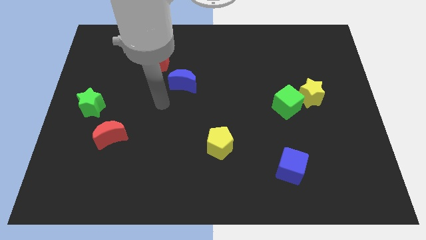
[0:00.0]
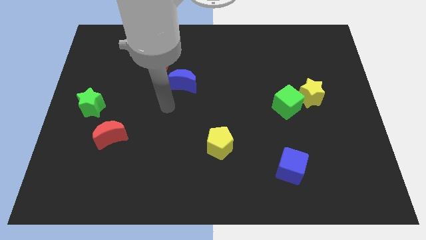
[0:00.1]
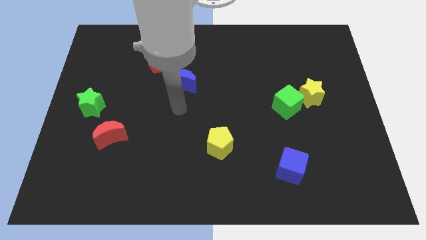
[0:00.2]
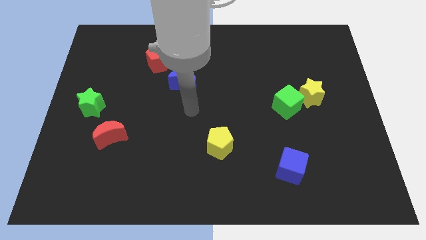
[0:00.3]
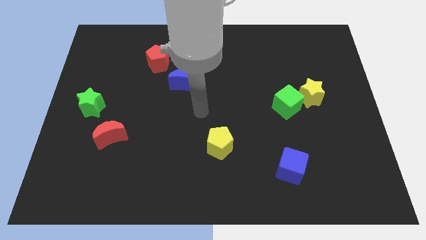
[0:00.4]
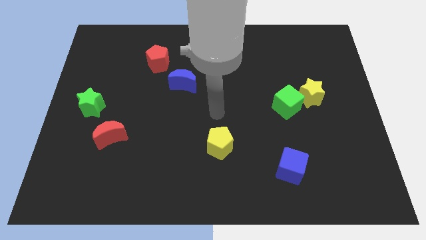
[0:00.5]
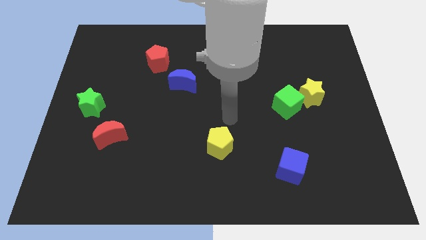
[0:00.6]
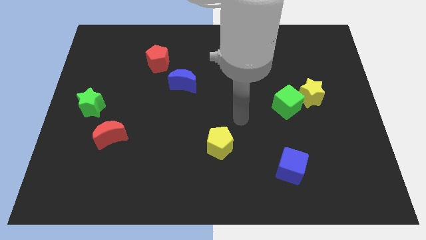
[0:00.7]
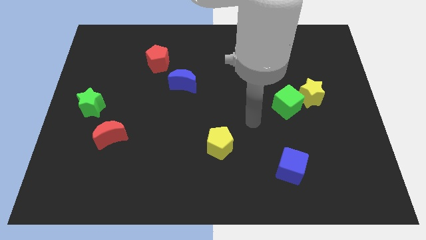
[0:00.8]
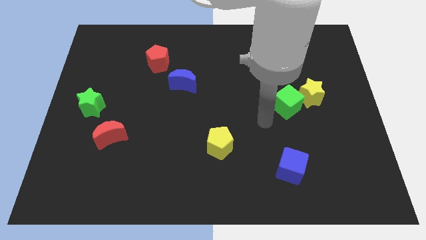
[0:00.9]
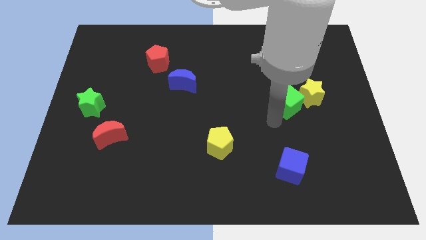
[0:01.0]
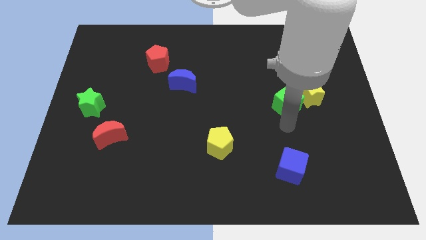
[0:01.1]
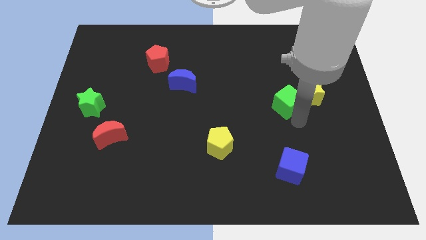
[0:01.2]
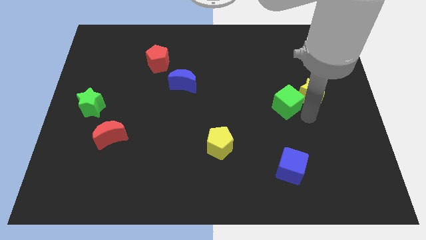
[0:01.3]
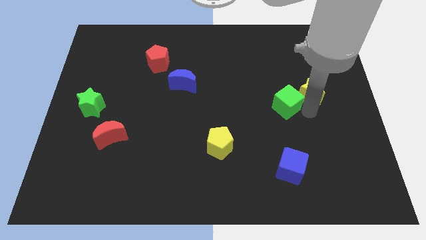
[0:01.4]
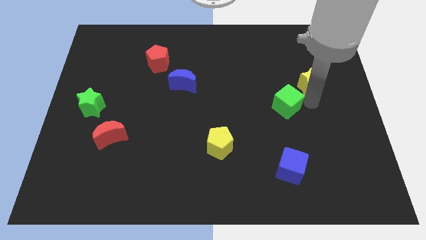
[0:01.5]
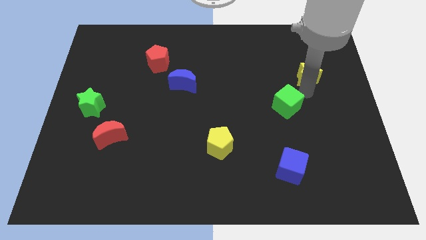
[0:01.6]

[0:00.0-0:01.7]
separate the green cube from the yellow star

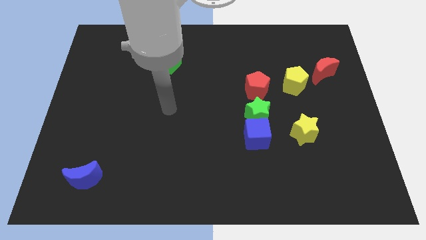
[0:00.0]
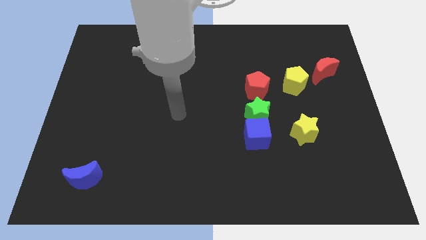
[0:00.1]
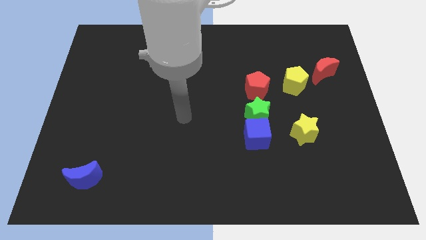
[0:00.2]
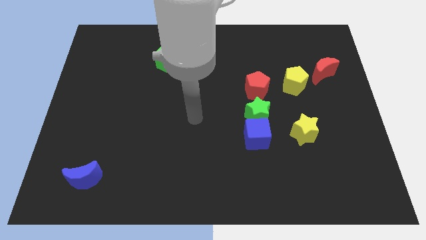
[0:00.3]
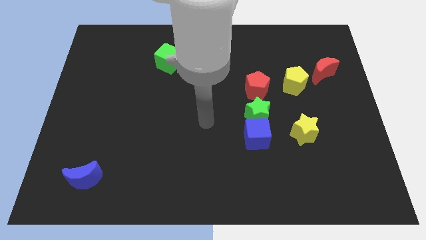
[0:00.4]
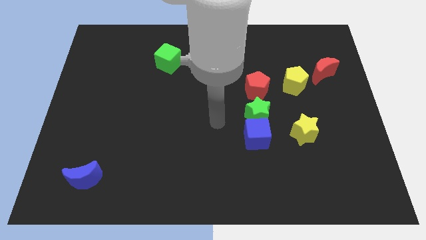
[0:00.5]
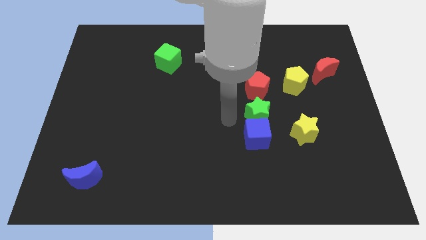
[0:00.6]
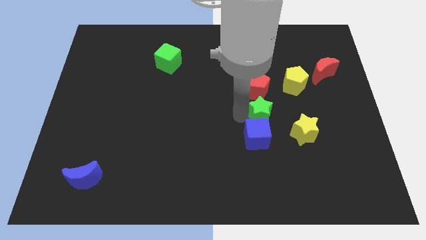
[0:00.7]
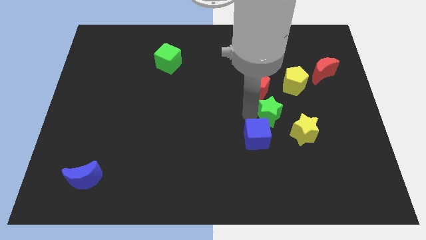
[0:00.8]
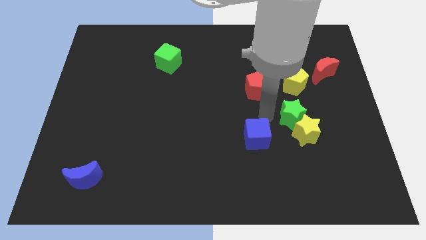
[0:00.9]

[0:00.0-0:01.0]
separate the blue cube from the green star

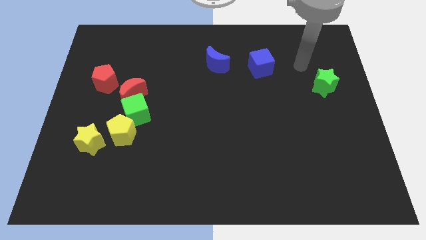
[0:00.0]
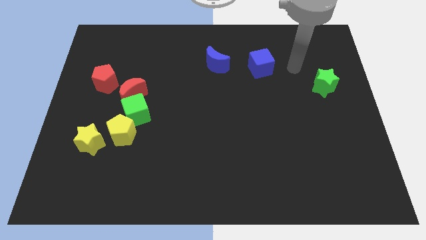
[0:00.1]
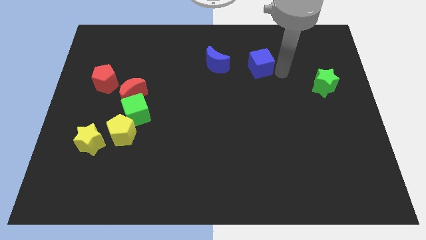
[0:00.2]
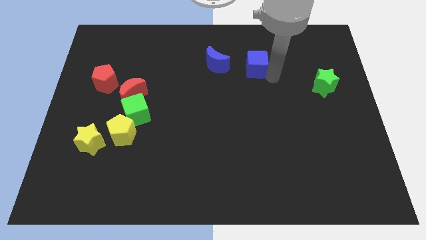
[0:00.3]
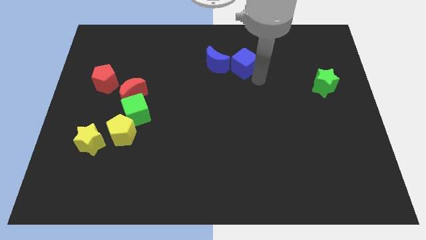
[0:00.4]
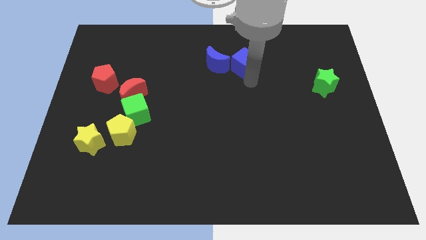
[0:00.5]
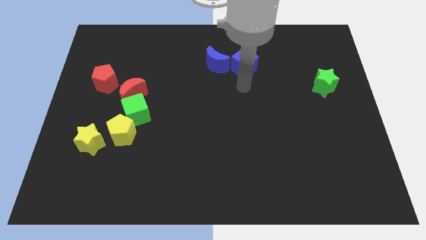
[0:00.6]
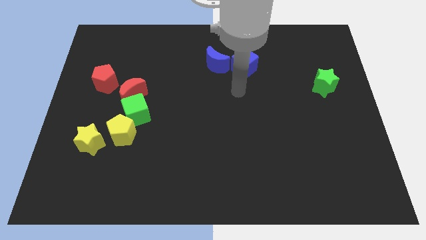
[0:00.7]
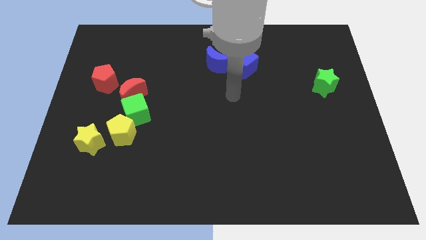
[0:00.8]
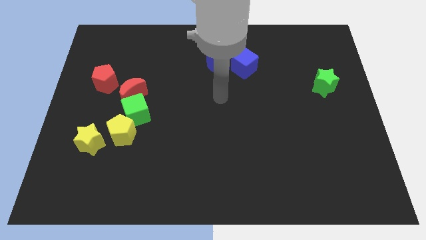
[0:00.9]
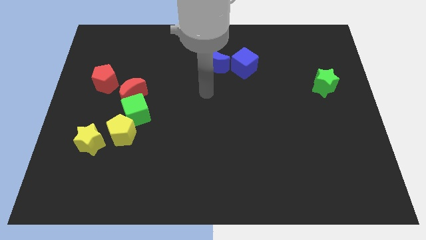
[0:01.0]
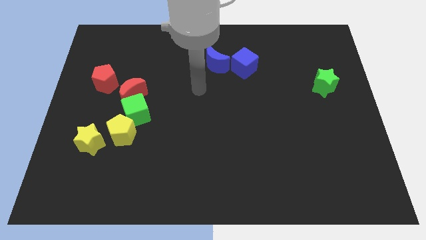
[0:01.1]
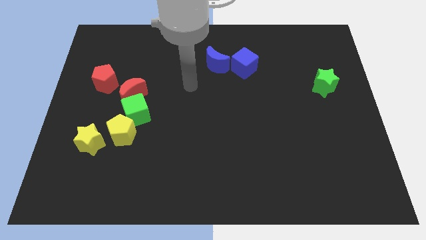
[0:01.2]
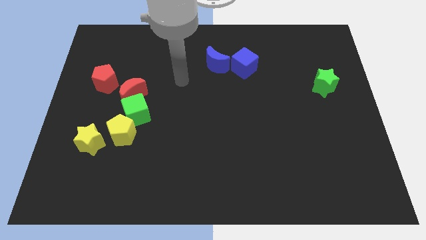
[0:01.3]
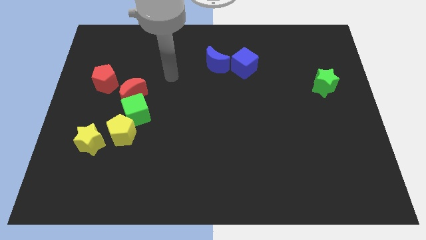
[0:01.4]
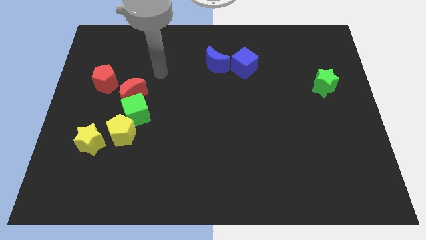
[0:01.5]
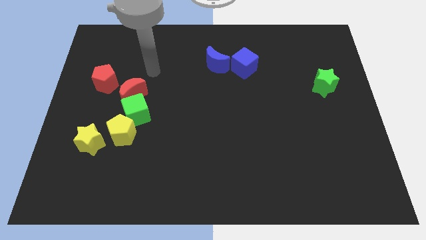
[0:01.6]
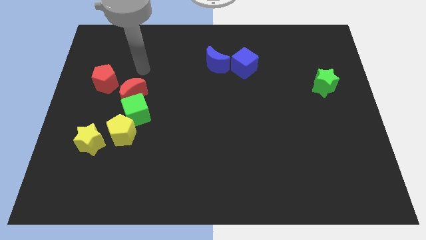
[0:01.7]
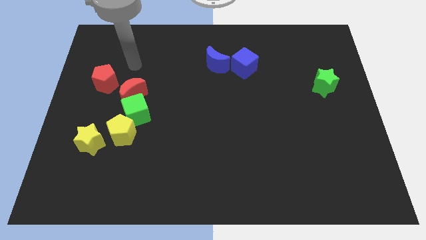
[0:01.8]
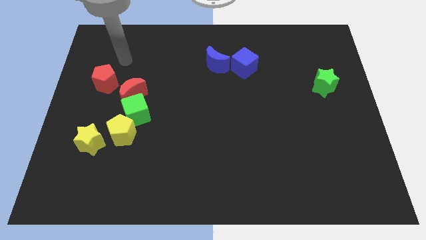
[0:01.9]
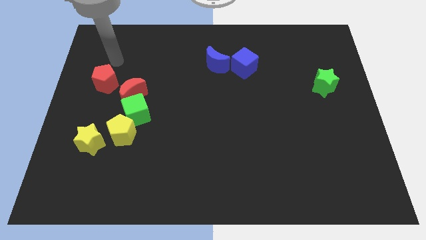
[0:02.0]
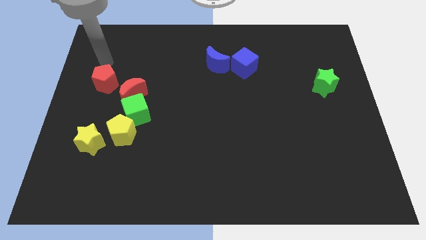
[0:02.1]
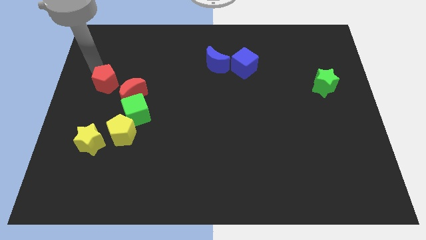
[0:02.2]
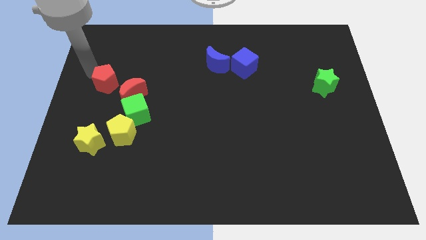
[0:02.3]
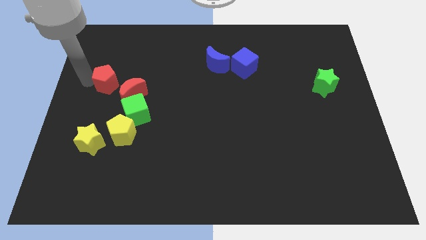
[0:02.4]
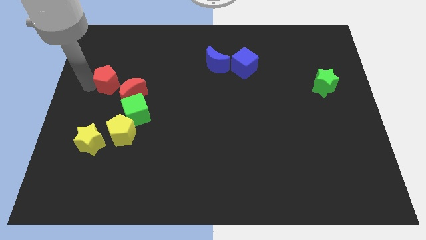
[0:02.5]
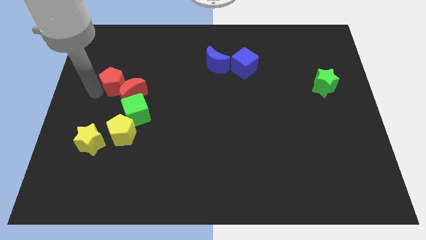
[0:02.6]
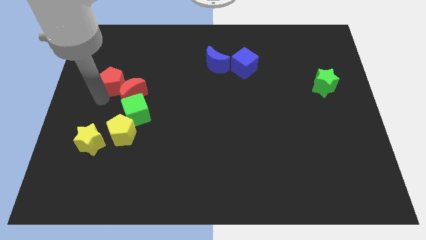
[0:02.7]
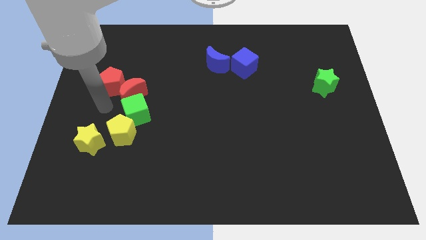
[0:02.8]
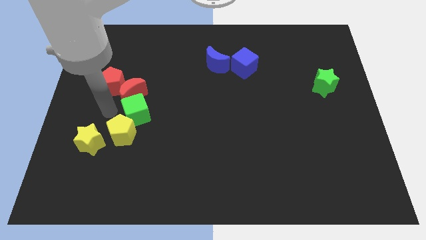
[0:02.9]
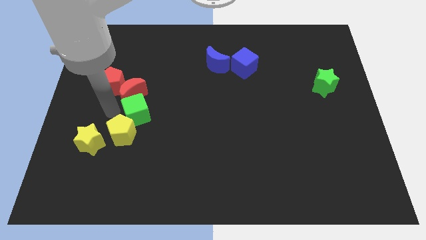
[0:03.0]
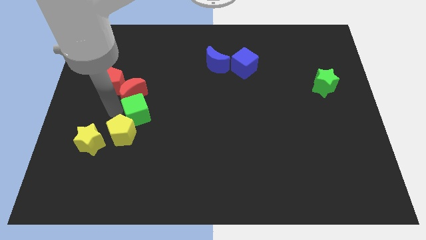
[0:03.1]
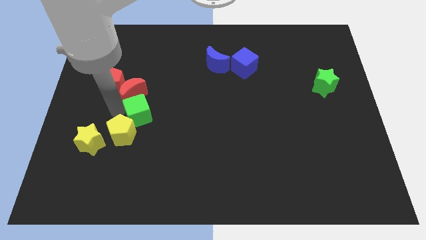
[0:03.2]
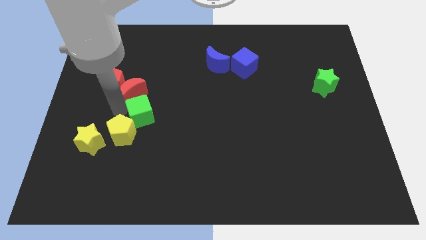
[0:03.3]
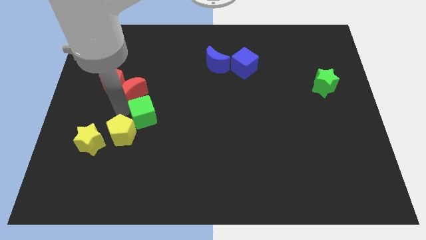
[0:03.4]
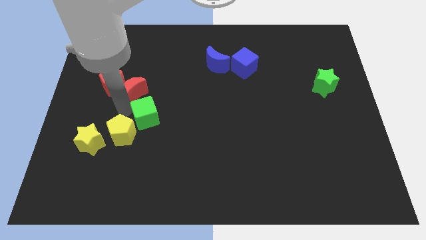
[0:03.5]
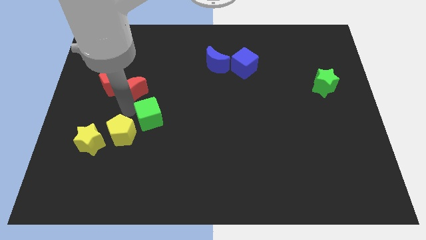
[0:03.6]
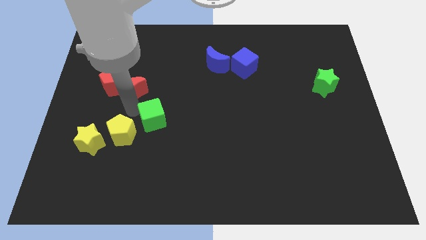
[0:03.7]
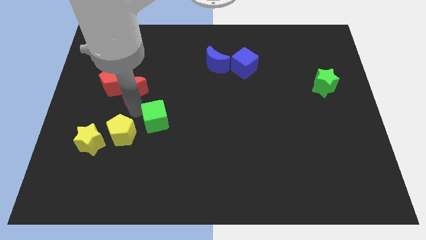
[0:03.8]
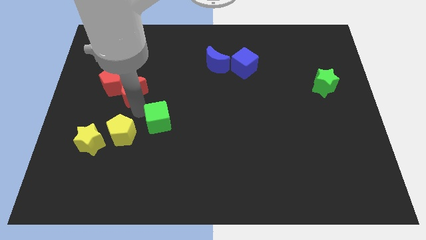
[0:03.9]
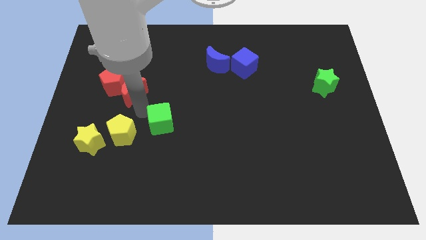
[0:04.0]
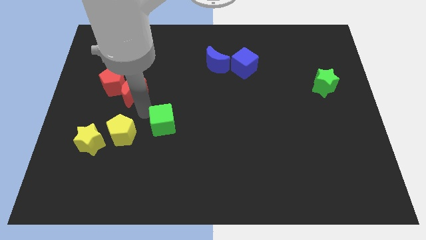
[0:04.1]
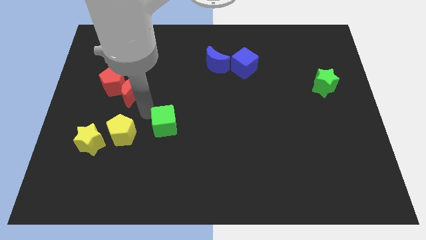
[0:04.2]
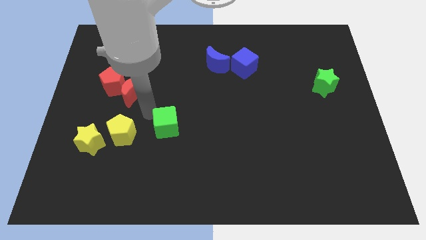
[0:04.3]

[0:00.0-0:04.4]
move the green cube away from the red moon and yellow pentagon

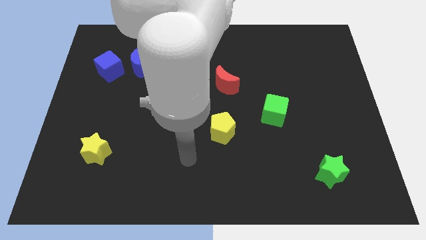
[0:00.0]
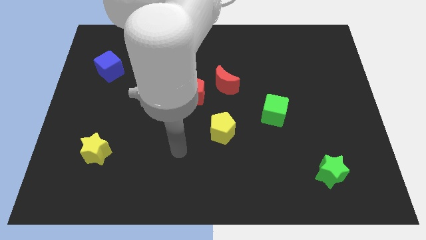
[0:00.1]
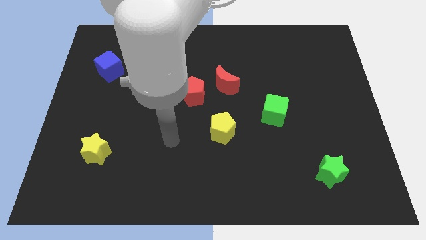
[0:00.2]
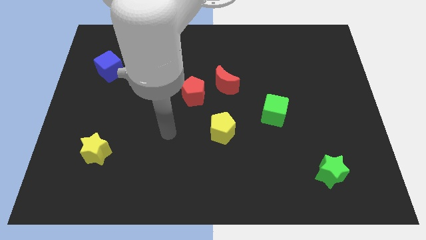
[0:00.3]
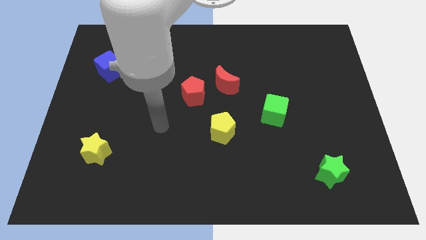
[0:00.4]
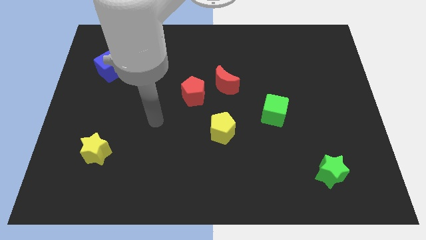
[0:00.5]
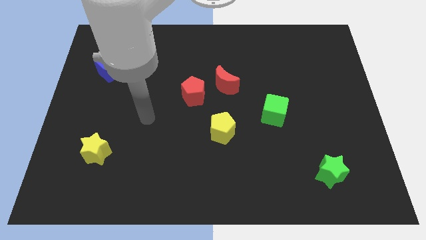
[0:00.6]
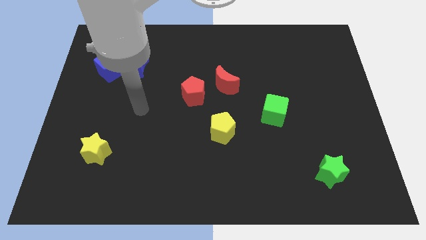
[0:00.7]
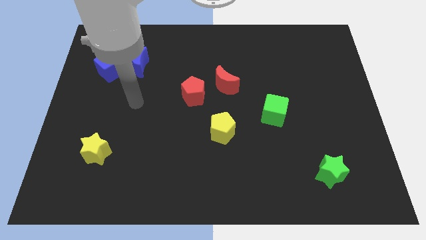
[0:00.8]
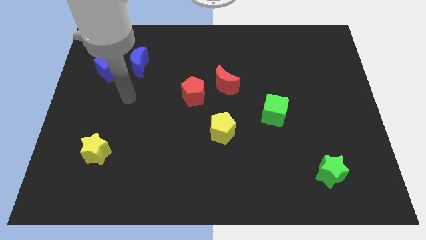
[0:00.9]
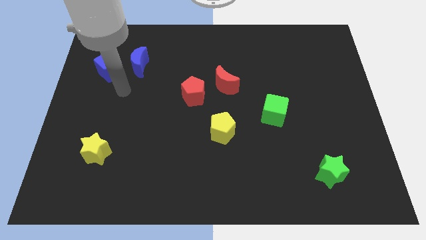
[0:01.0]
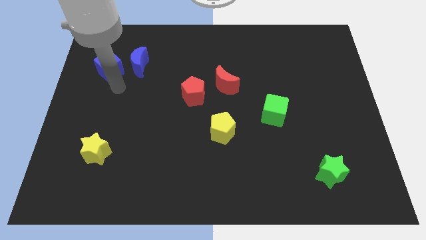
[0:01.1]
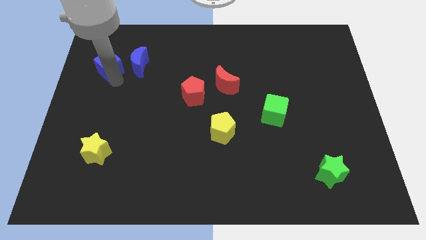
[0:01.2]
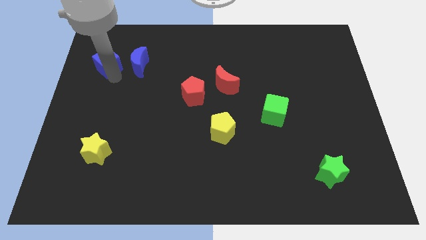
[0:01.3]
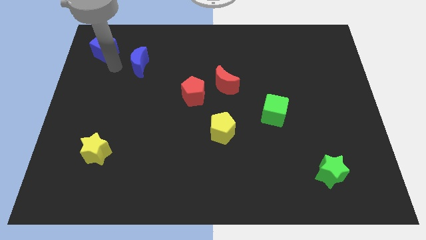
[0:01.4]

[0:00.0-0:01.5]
move the blue moon away from the blue cube

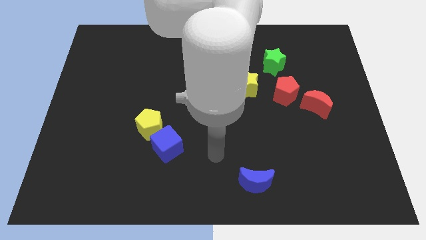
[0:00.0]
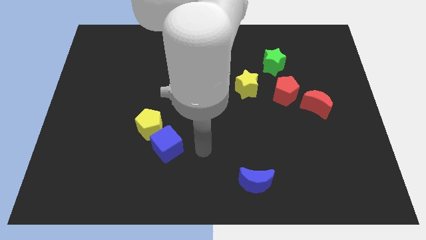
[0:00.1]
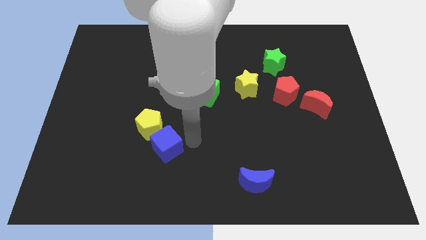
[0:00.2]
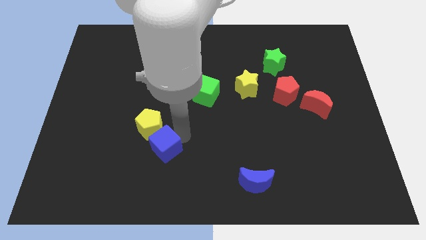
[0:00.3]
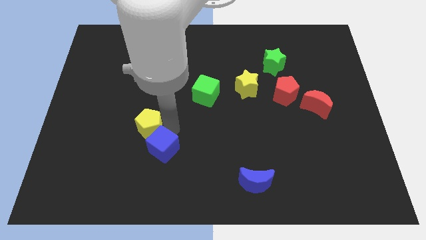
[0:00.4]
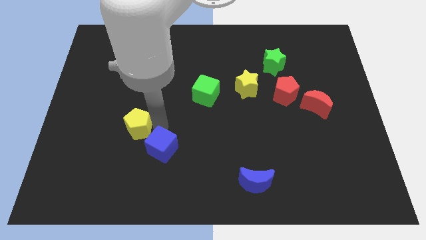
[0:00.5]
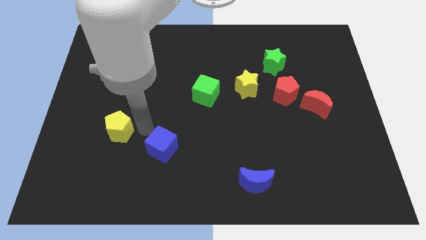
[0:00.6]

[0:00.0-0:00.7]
move the blue cube away from the yellow pentagon
